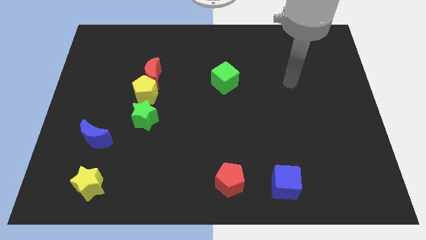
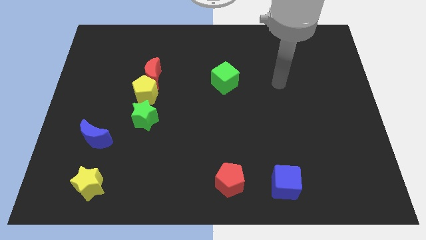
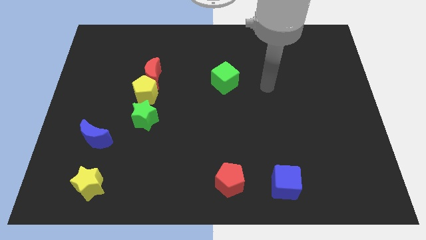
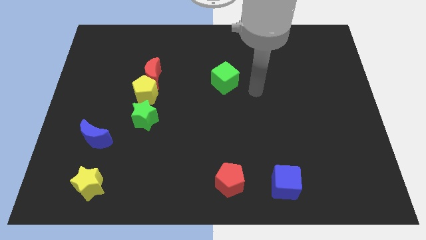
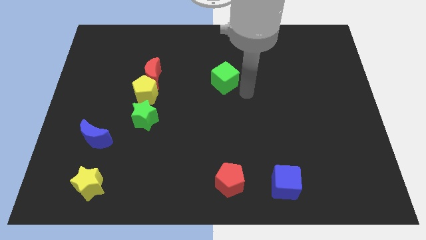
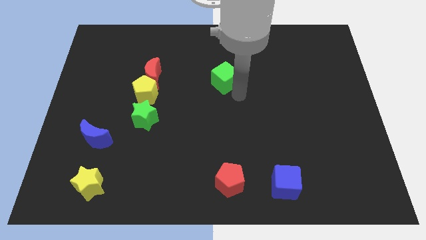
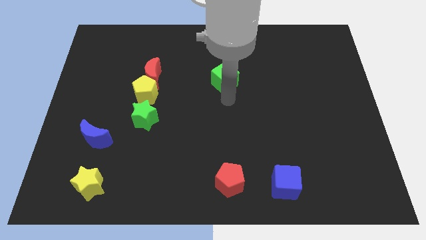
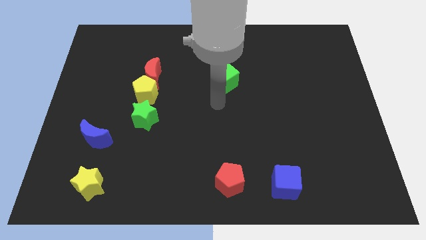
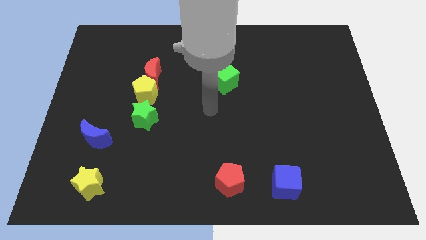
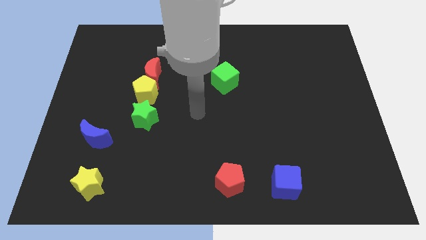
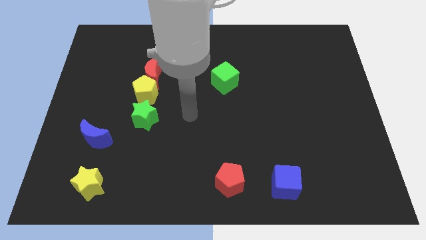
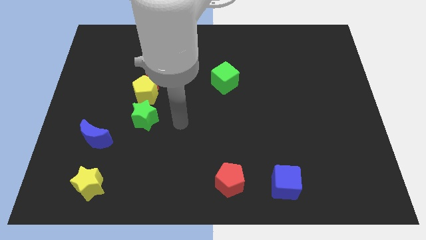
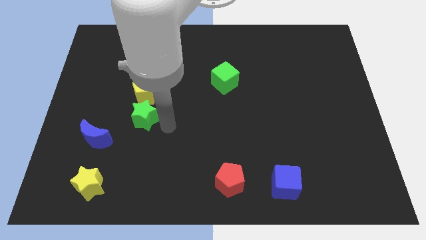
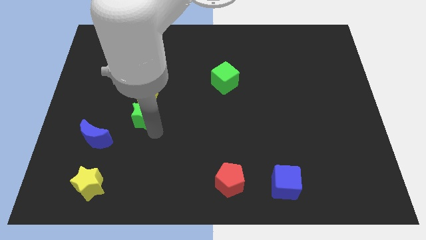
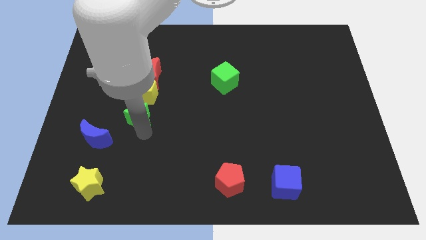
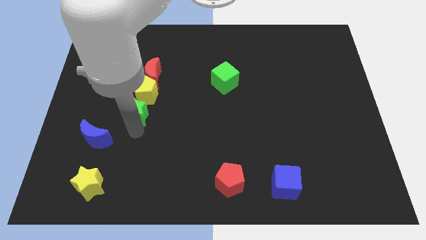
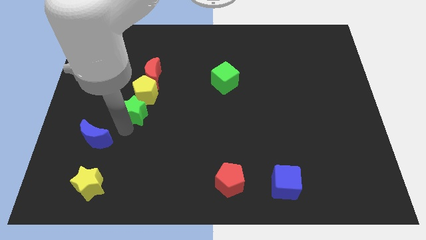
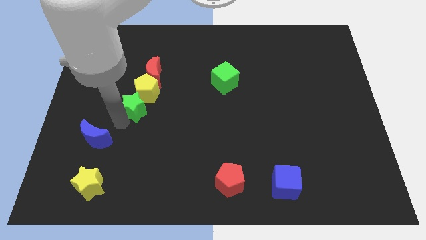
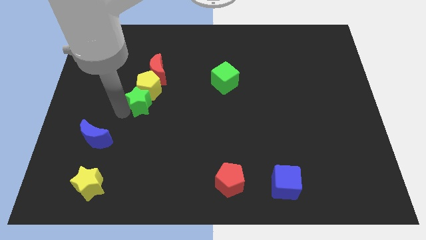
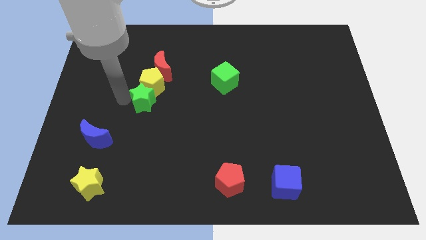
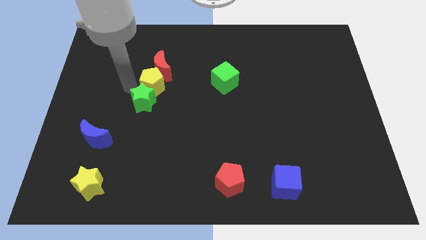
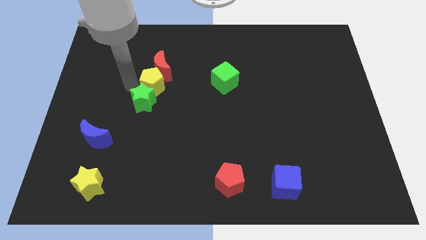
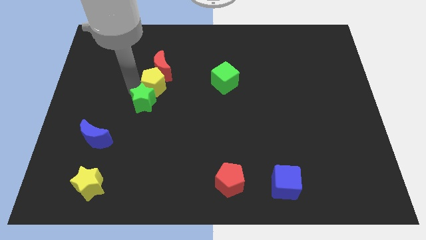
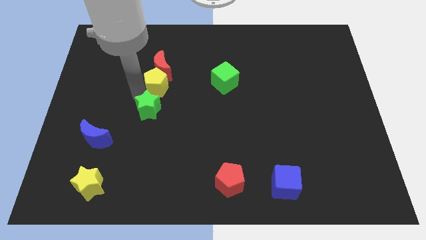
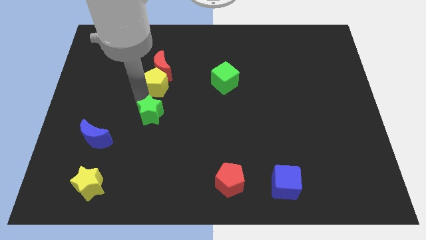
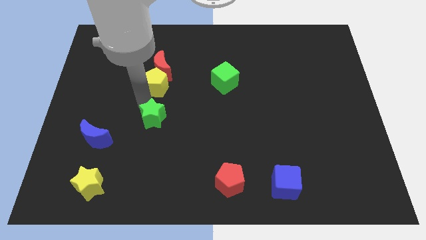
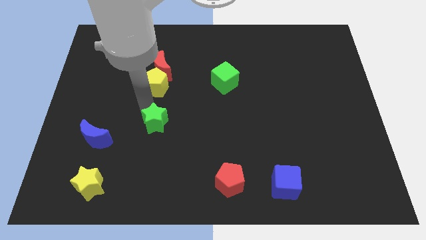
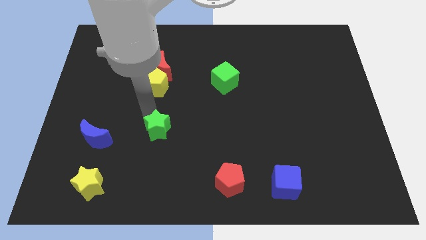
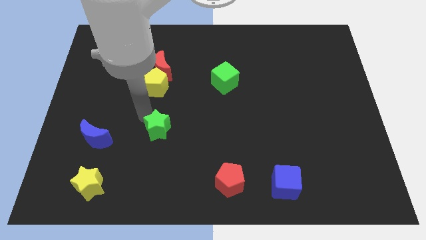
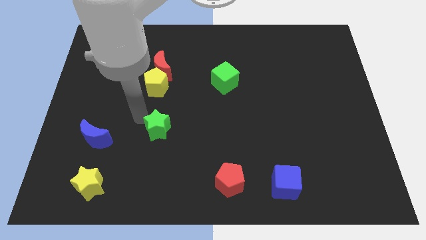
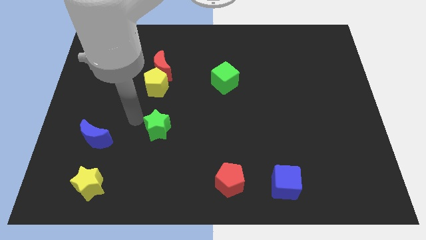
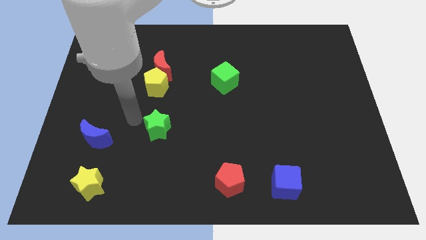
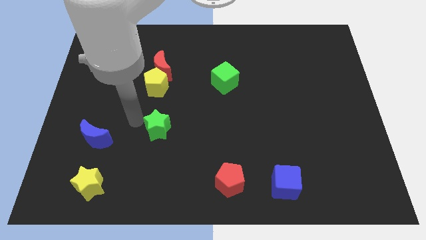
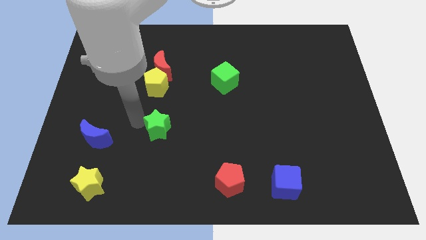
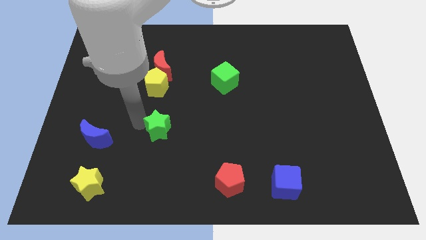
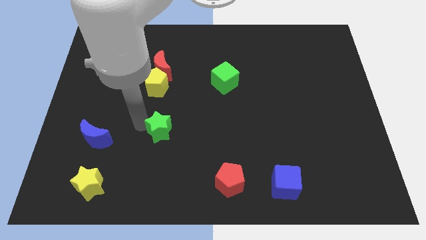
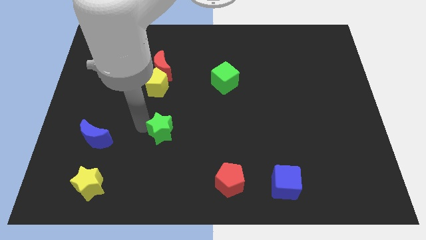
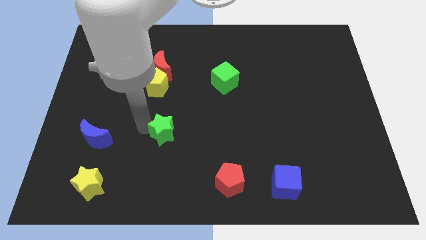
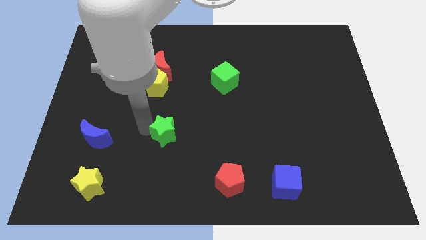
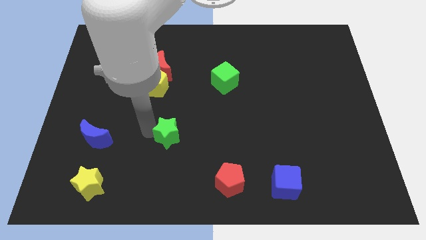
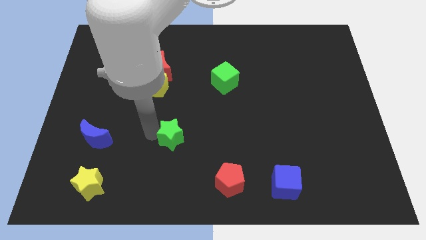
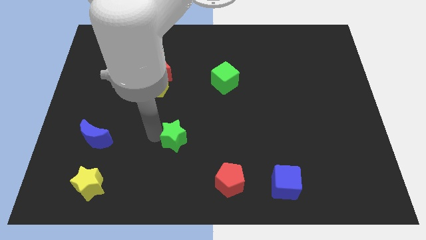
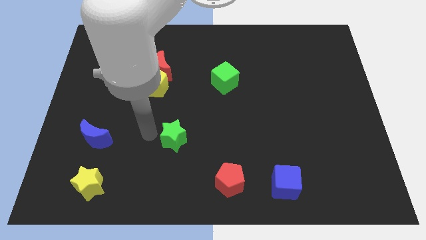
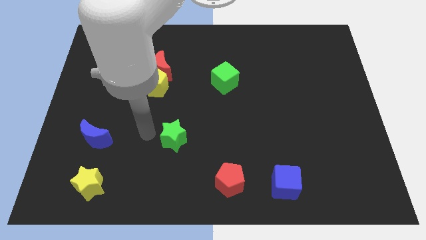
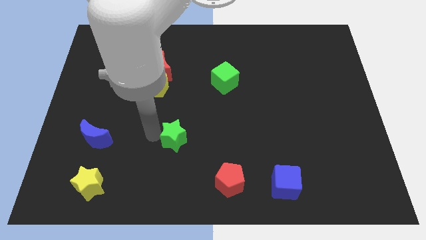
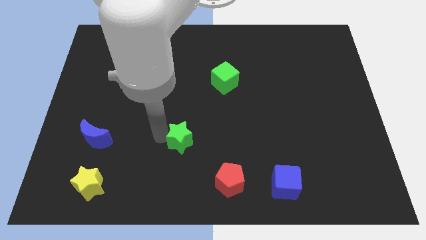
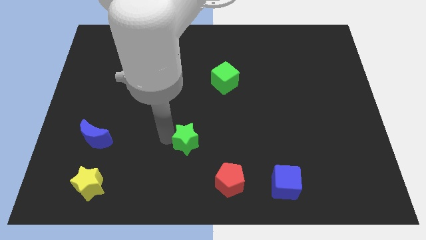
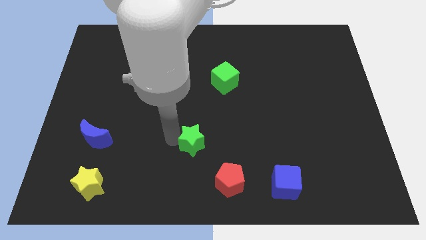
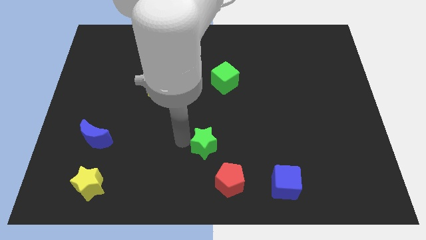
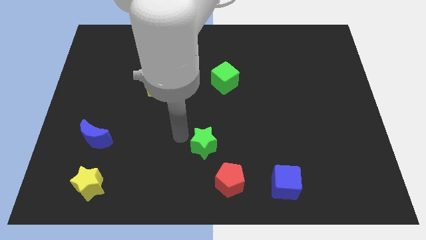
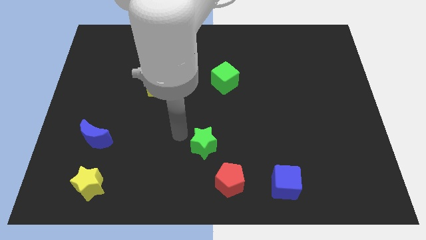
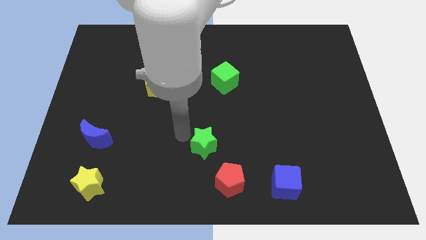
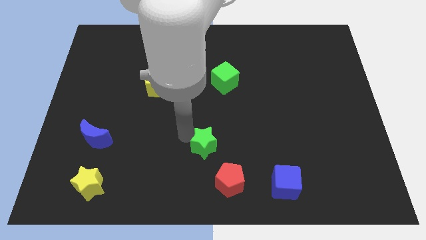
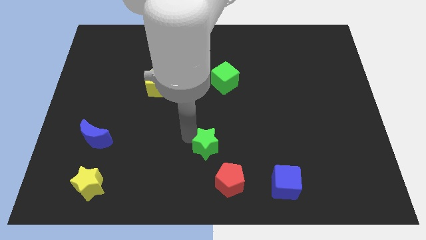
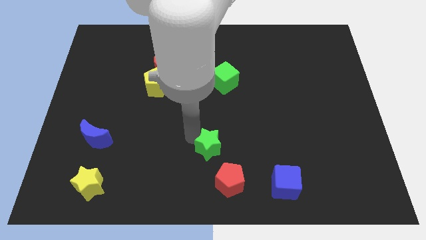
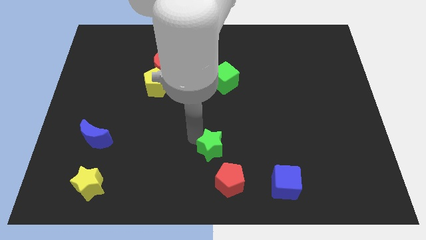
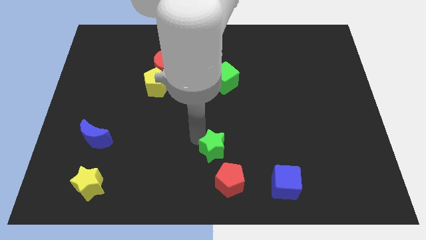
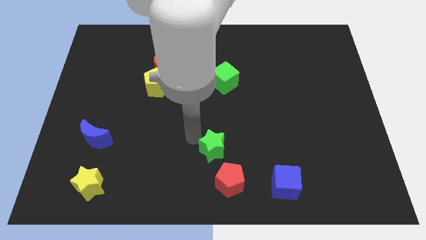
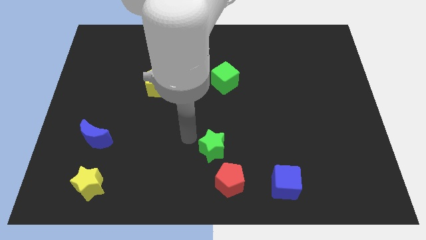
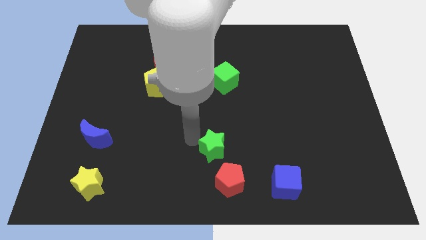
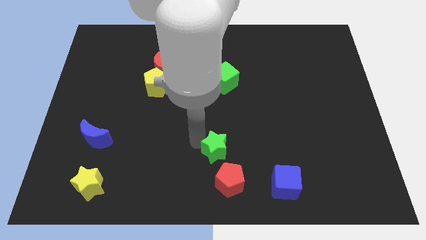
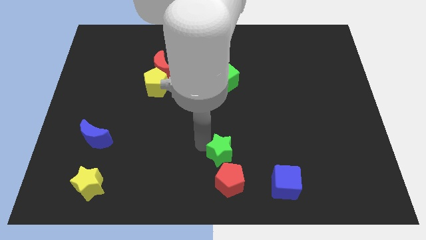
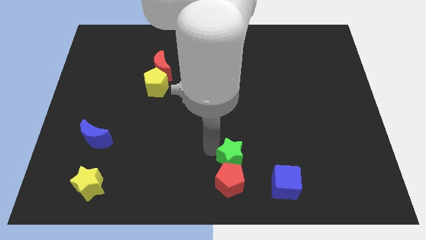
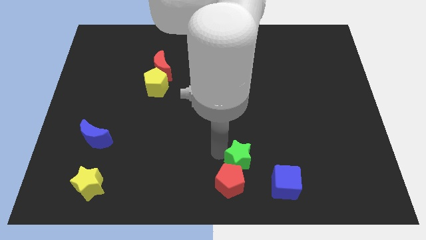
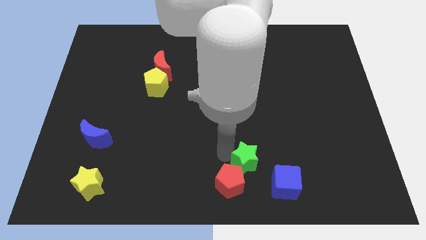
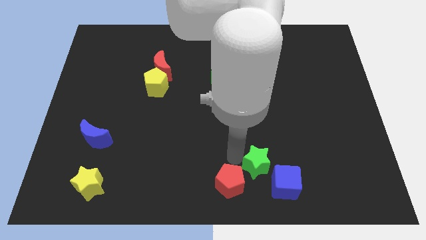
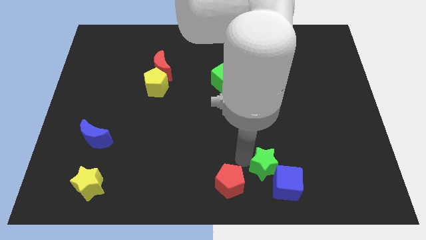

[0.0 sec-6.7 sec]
push the green star close to the blue cube
